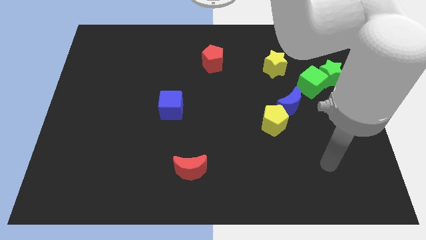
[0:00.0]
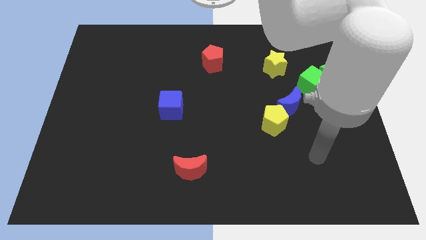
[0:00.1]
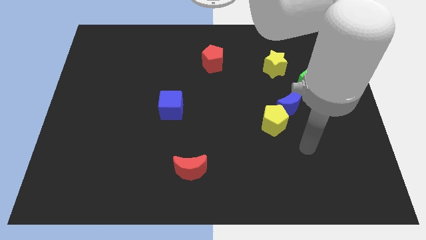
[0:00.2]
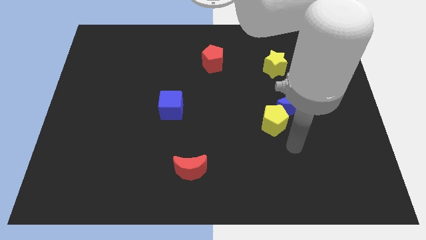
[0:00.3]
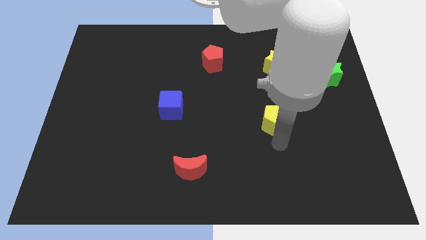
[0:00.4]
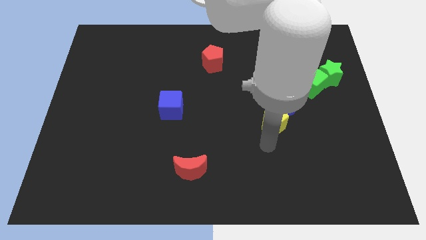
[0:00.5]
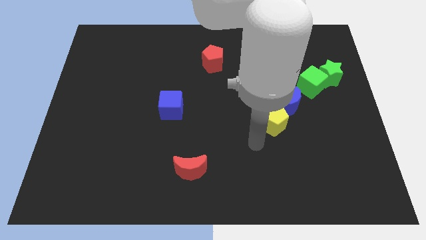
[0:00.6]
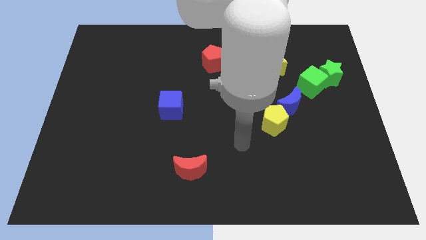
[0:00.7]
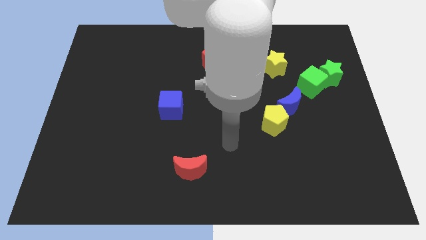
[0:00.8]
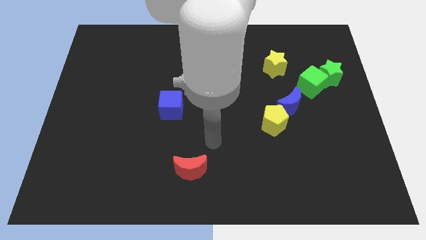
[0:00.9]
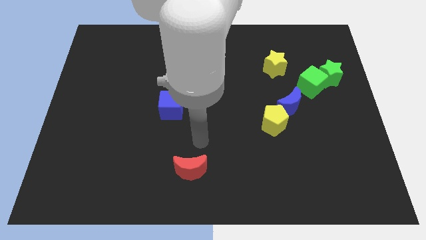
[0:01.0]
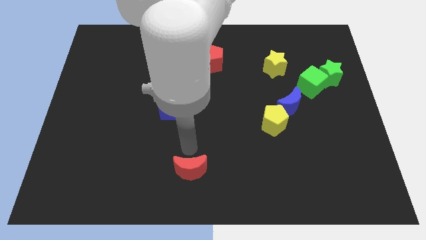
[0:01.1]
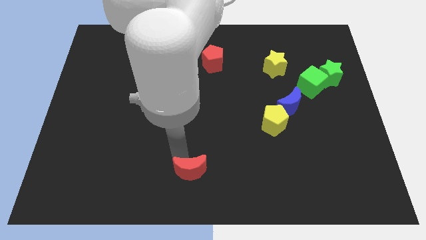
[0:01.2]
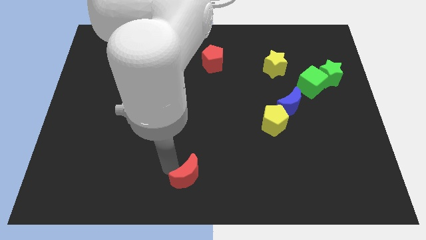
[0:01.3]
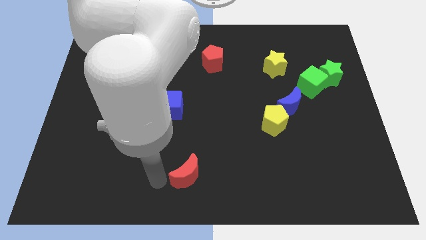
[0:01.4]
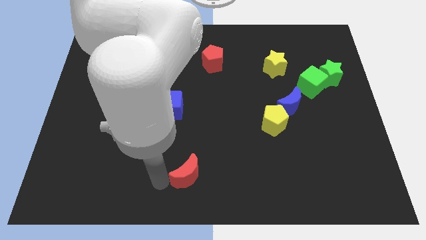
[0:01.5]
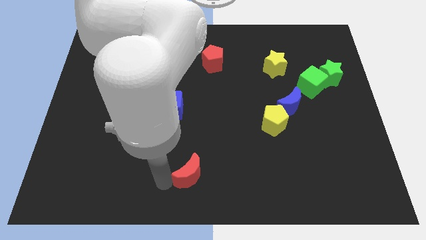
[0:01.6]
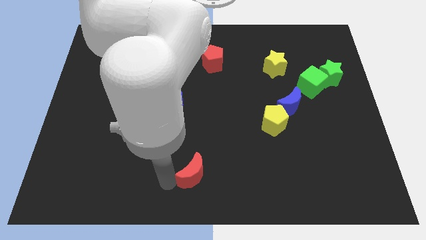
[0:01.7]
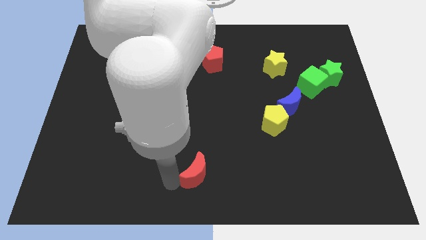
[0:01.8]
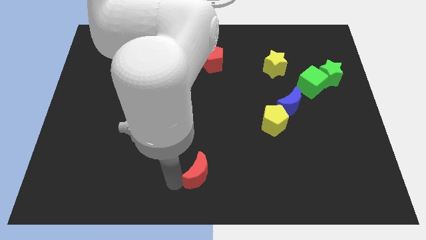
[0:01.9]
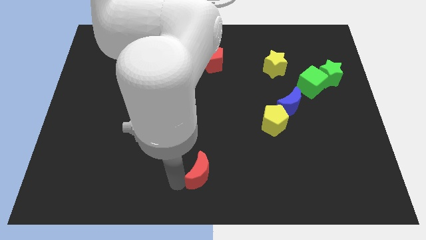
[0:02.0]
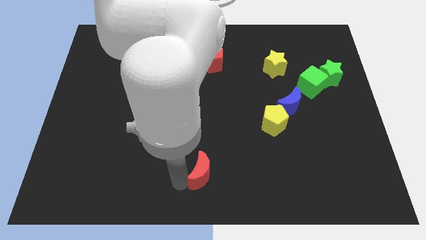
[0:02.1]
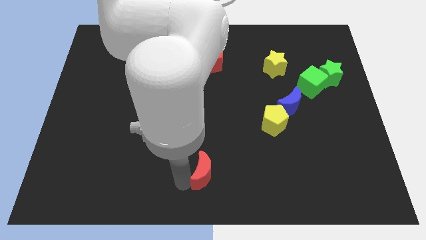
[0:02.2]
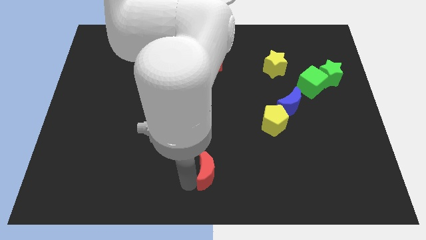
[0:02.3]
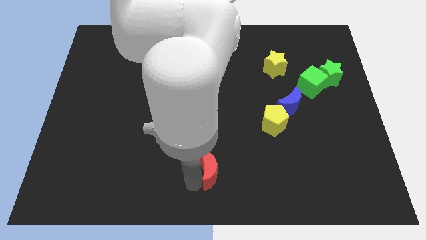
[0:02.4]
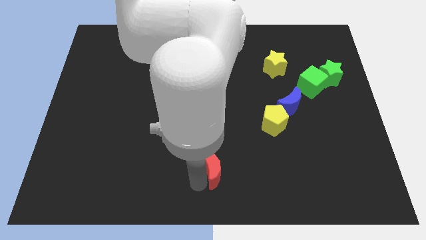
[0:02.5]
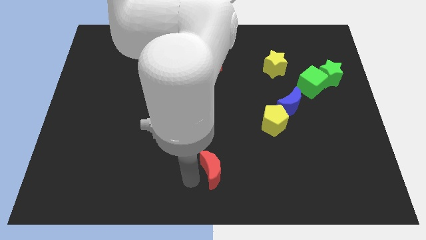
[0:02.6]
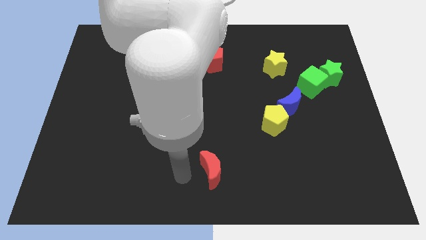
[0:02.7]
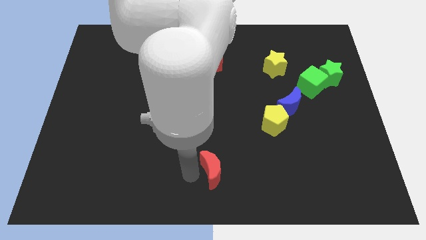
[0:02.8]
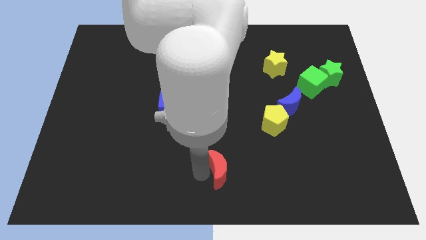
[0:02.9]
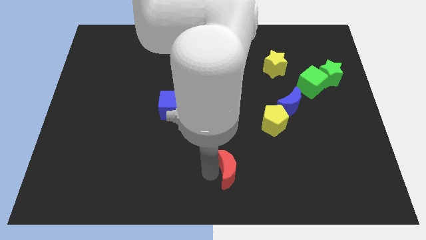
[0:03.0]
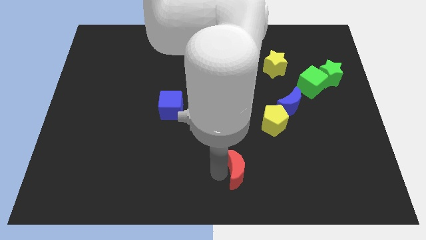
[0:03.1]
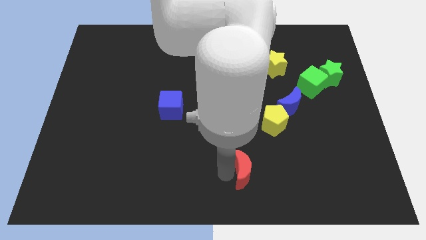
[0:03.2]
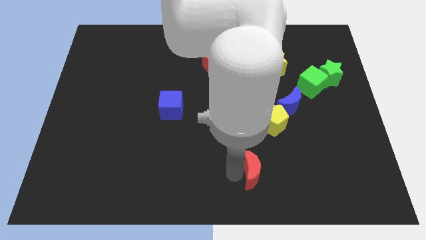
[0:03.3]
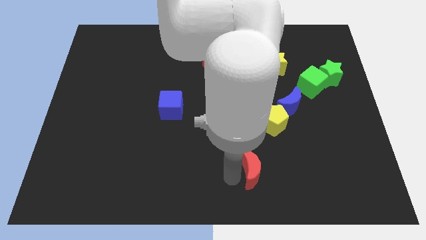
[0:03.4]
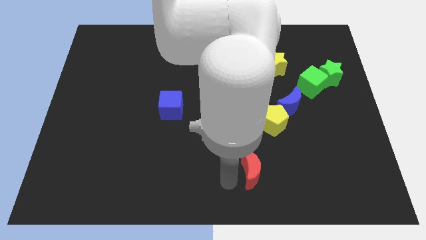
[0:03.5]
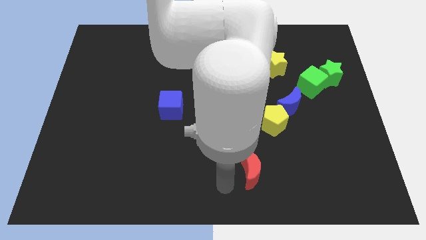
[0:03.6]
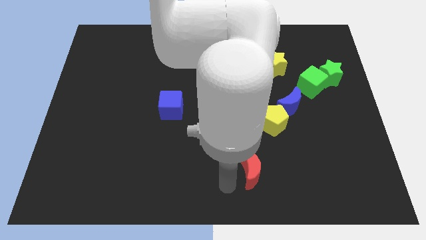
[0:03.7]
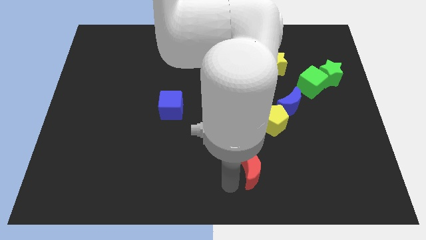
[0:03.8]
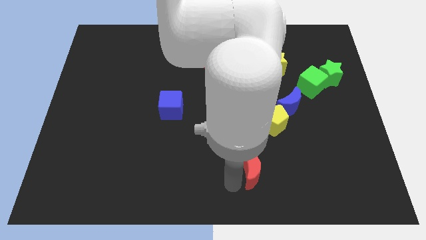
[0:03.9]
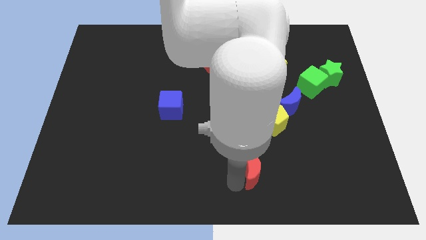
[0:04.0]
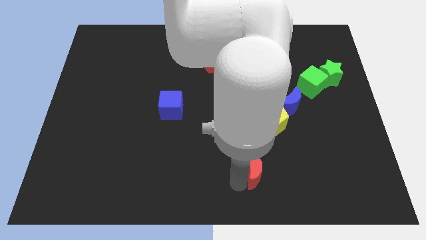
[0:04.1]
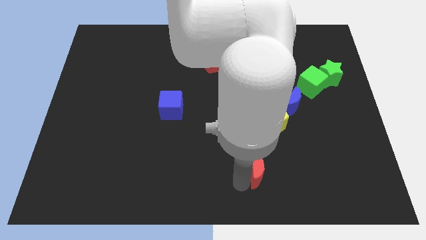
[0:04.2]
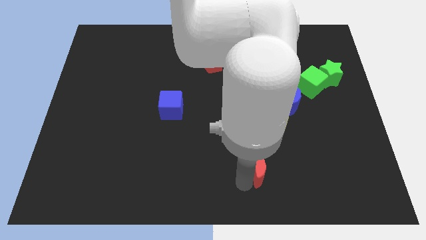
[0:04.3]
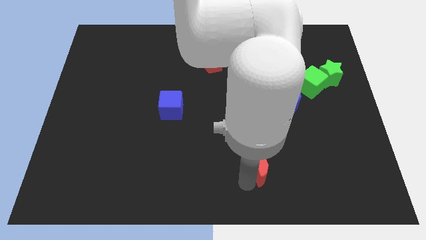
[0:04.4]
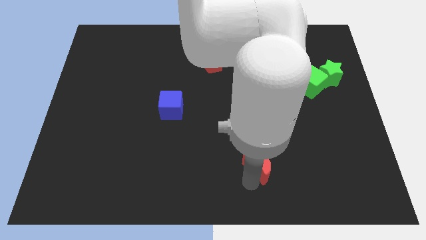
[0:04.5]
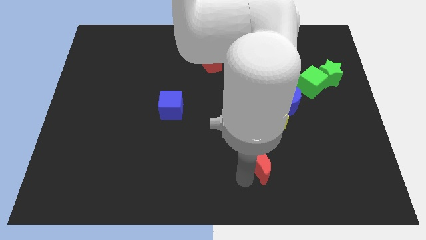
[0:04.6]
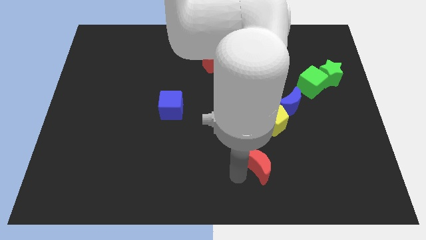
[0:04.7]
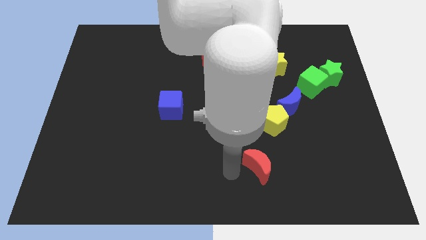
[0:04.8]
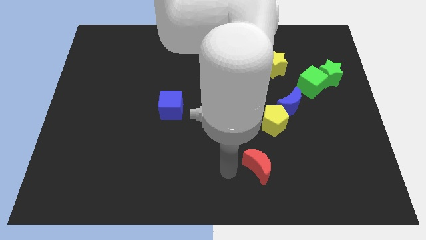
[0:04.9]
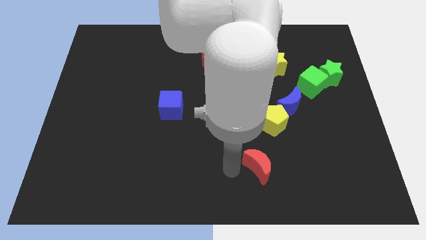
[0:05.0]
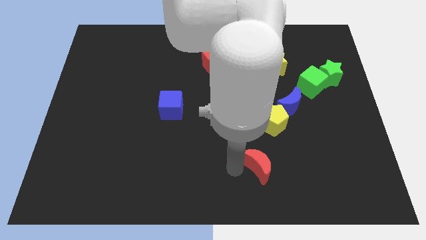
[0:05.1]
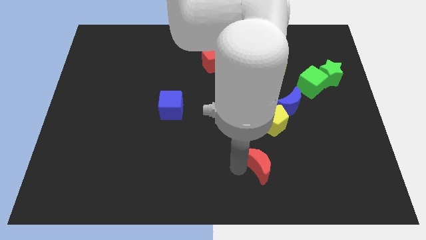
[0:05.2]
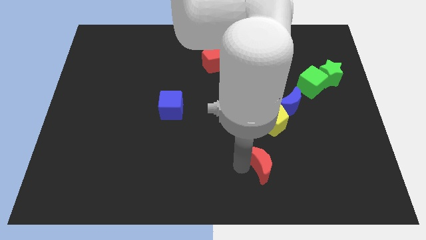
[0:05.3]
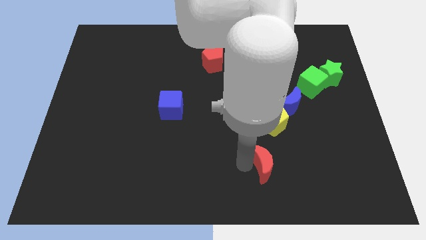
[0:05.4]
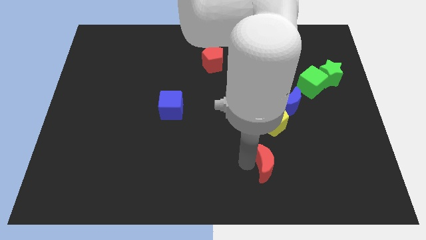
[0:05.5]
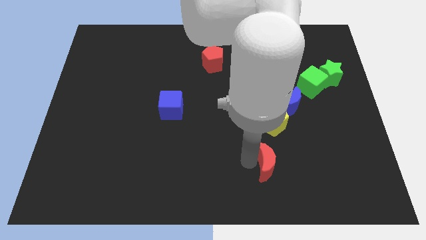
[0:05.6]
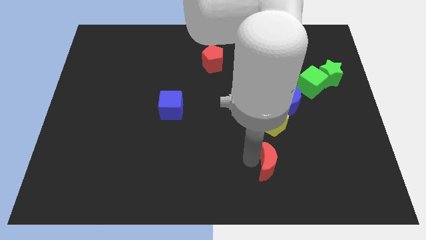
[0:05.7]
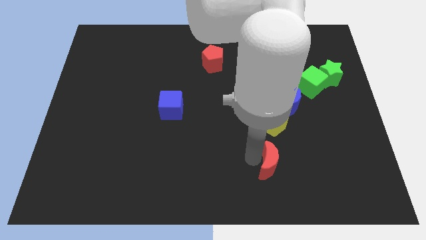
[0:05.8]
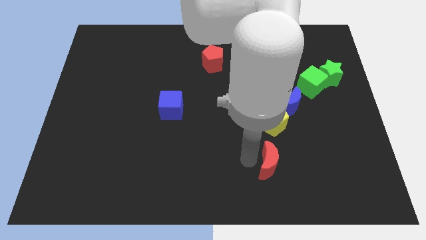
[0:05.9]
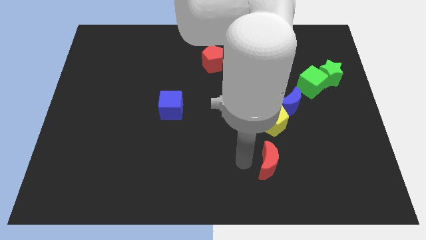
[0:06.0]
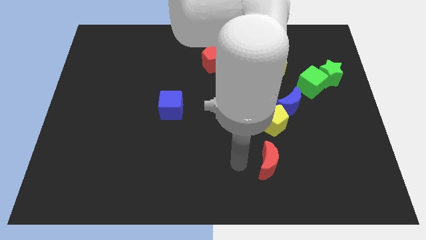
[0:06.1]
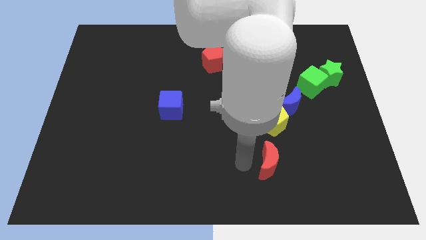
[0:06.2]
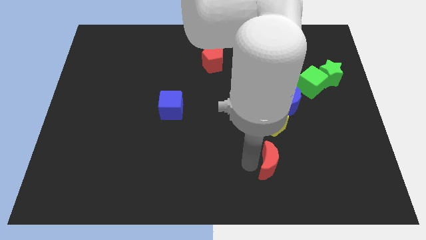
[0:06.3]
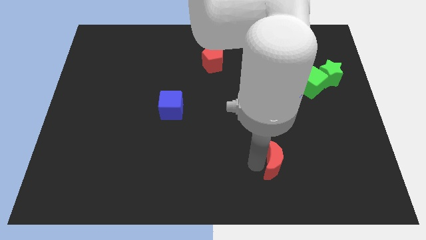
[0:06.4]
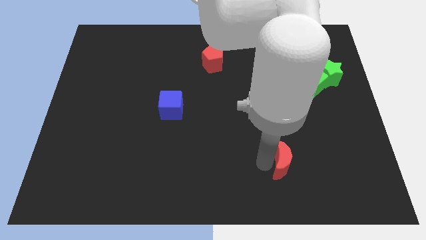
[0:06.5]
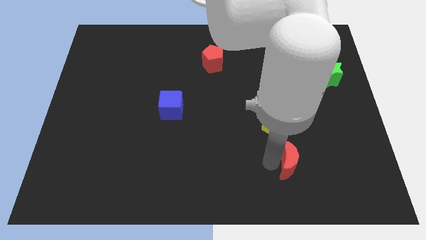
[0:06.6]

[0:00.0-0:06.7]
slide the red moon right

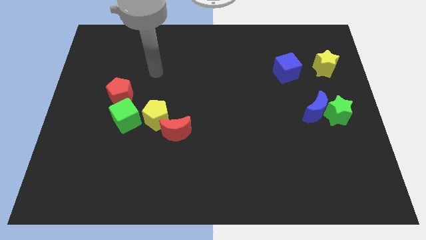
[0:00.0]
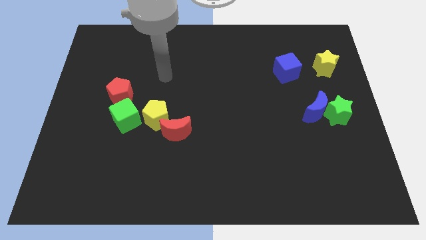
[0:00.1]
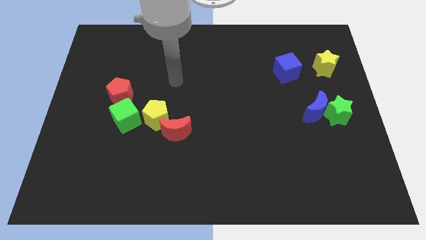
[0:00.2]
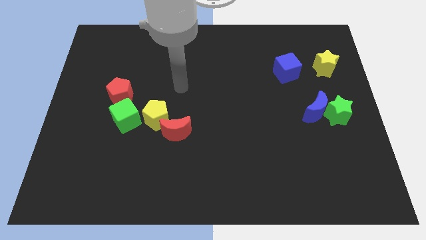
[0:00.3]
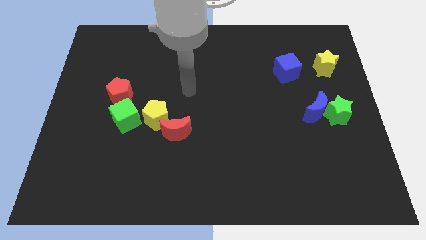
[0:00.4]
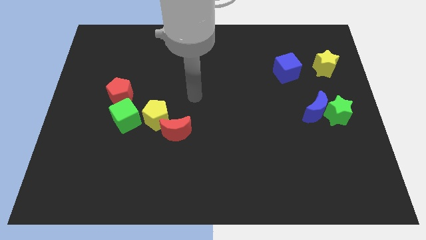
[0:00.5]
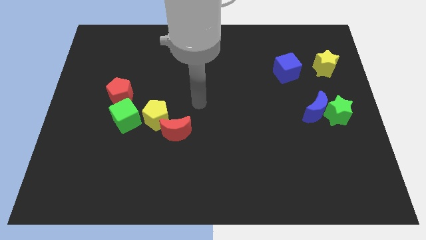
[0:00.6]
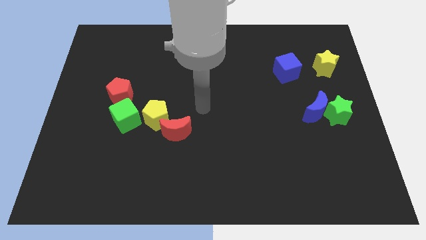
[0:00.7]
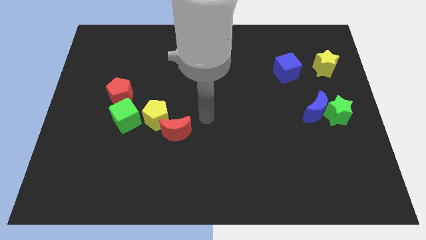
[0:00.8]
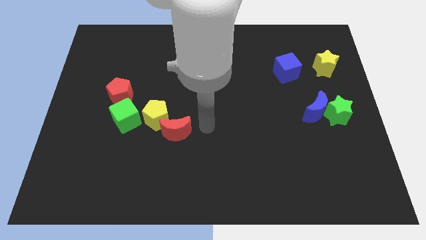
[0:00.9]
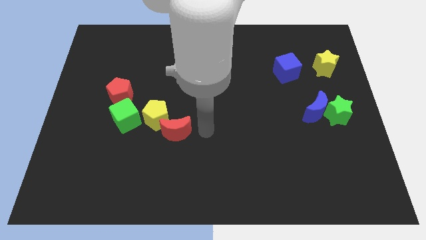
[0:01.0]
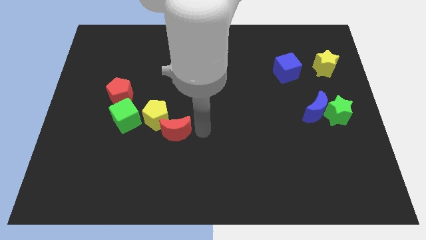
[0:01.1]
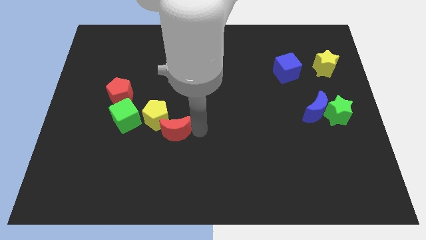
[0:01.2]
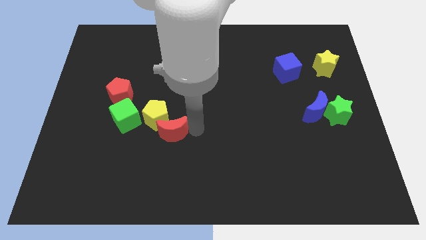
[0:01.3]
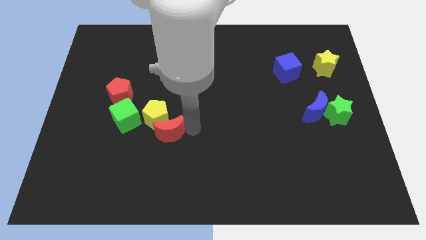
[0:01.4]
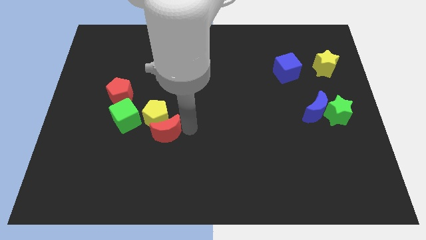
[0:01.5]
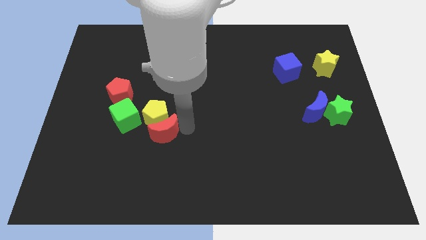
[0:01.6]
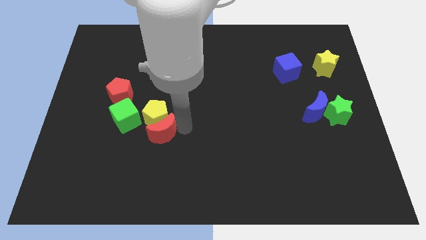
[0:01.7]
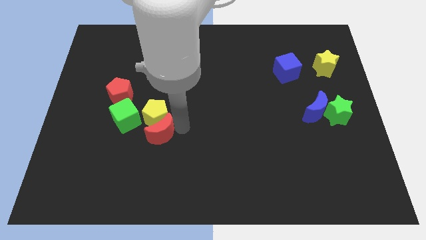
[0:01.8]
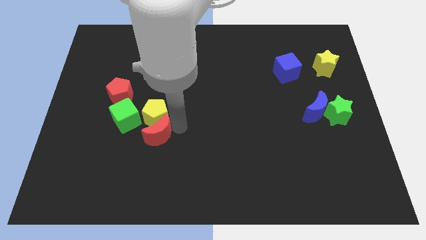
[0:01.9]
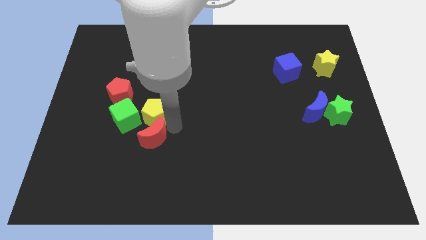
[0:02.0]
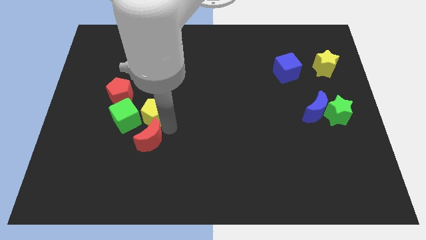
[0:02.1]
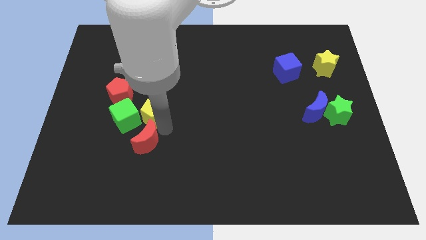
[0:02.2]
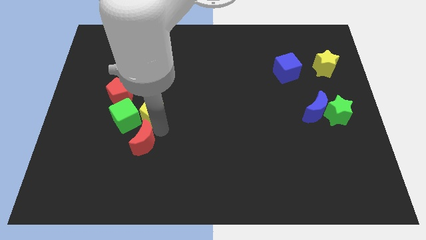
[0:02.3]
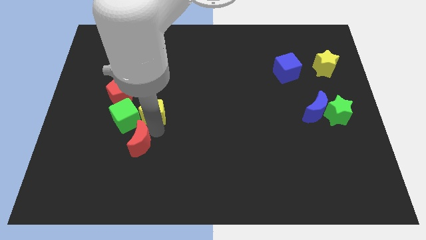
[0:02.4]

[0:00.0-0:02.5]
move the red moon left slightly
